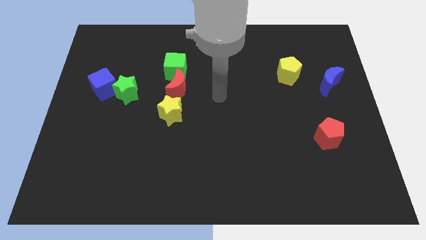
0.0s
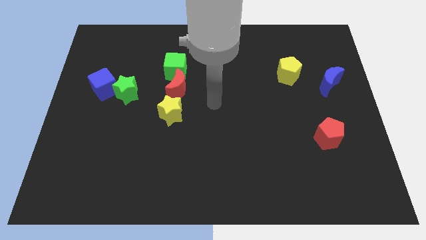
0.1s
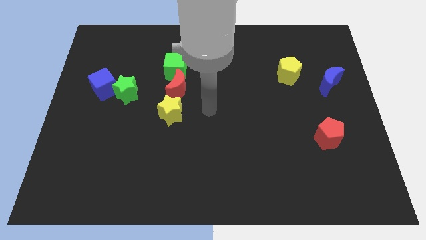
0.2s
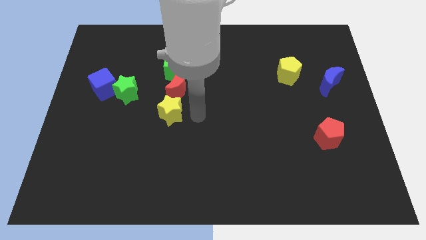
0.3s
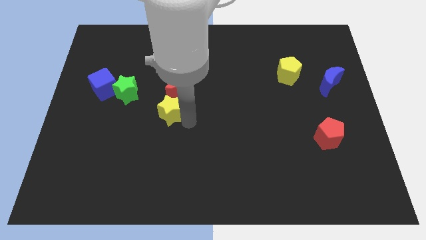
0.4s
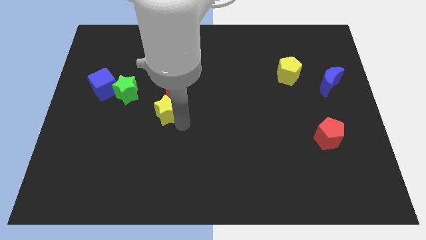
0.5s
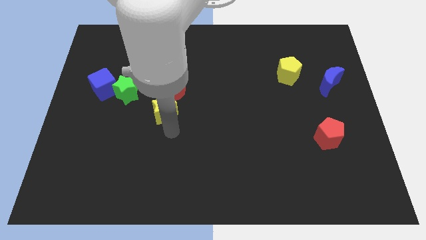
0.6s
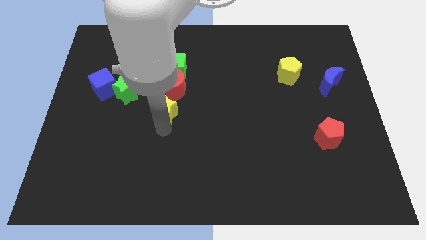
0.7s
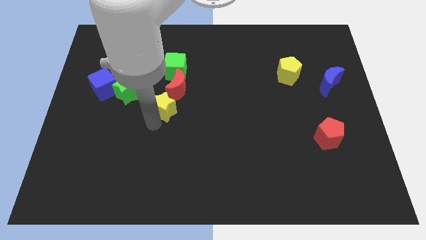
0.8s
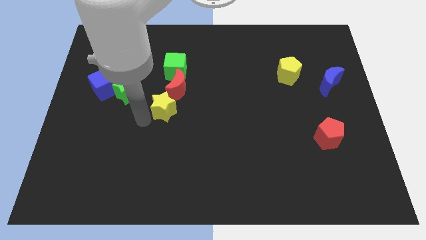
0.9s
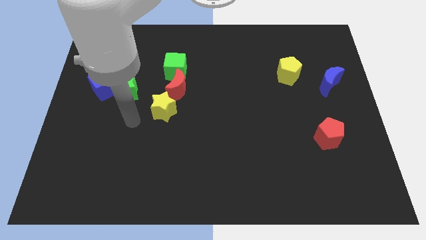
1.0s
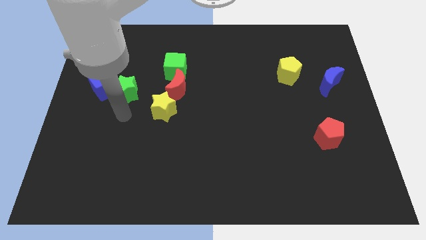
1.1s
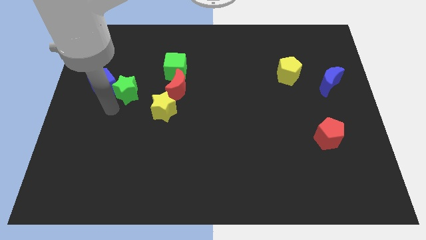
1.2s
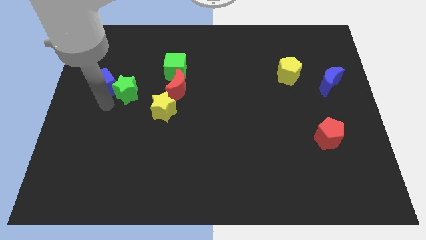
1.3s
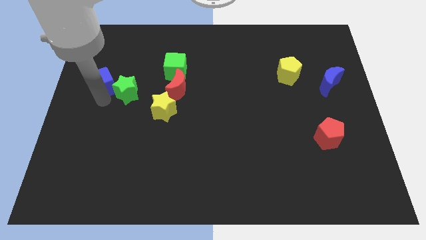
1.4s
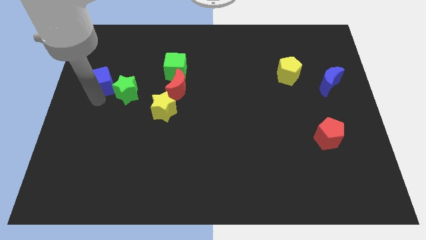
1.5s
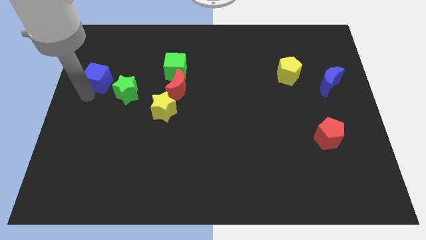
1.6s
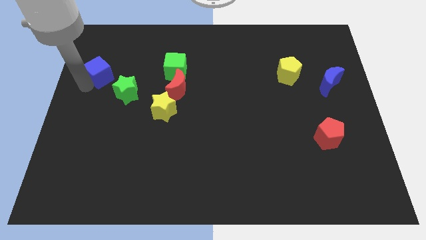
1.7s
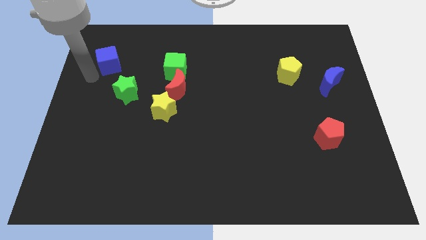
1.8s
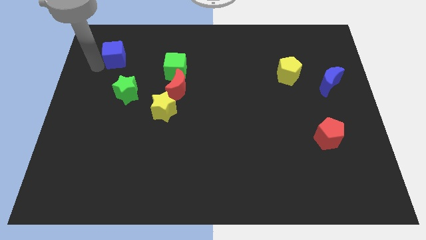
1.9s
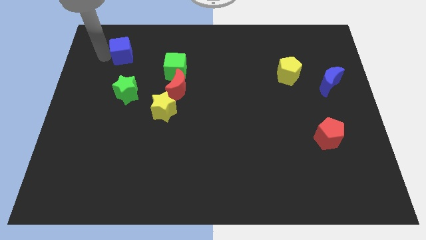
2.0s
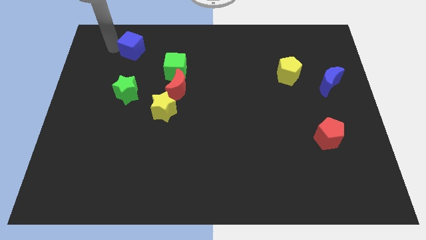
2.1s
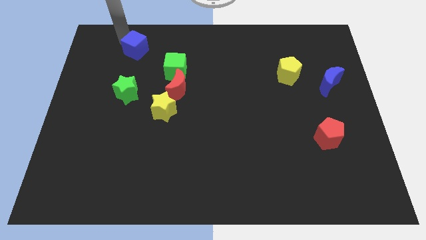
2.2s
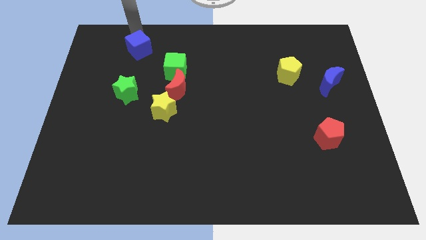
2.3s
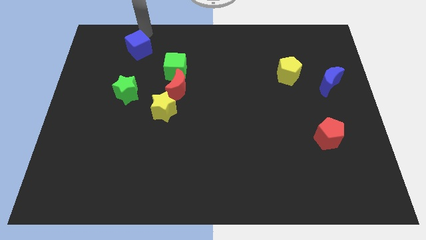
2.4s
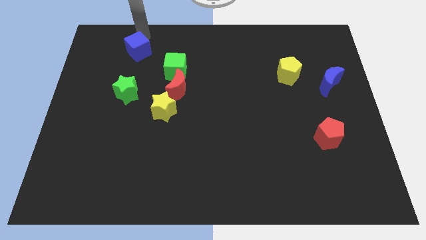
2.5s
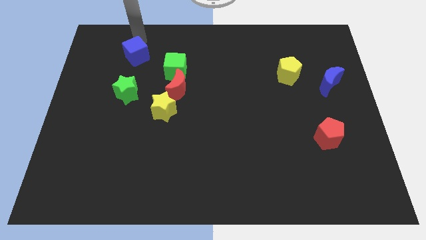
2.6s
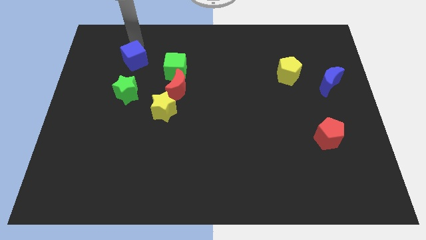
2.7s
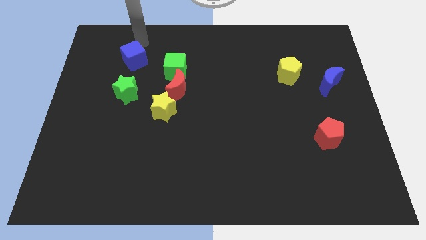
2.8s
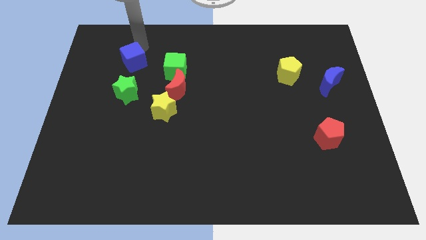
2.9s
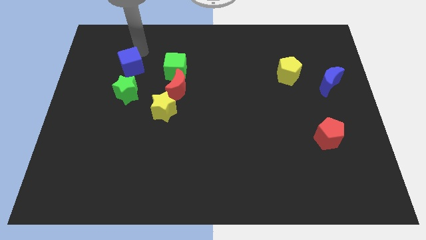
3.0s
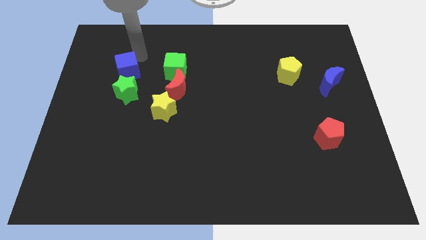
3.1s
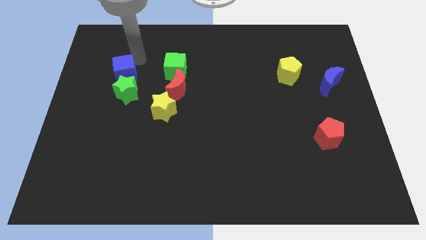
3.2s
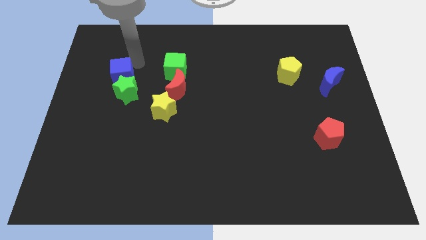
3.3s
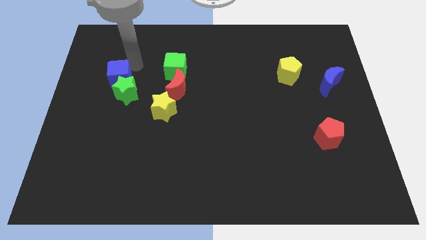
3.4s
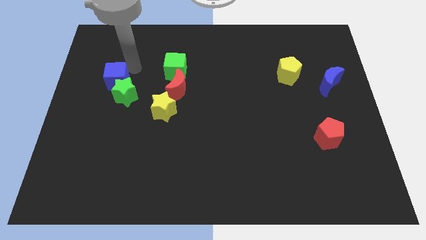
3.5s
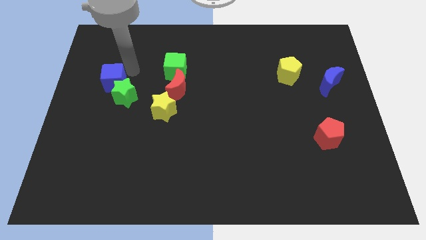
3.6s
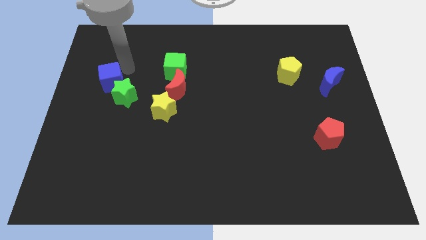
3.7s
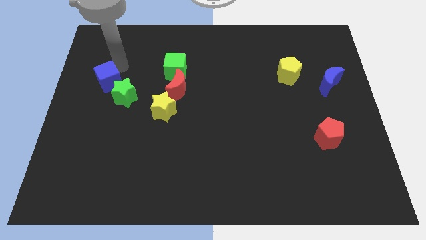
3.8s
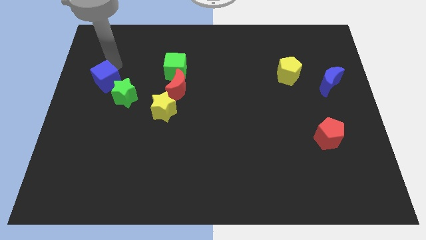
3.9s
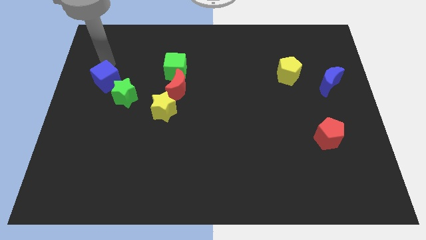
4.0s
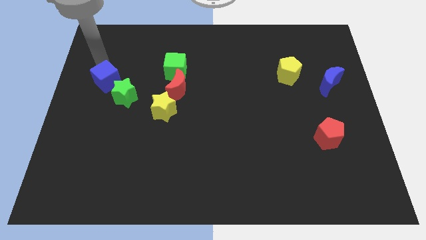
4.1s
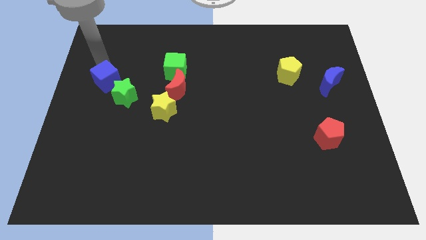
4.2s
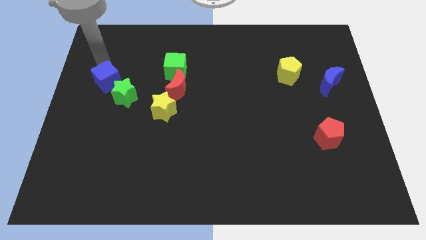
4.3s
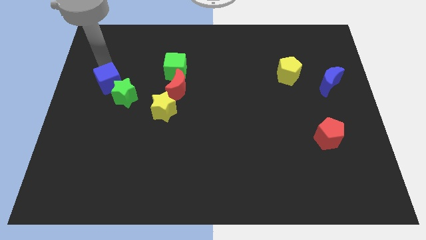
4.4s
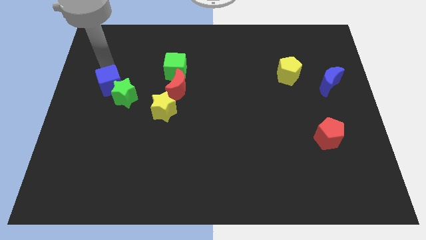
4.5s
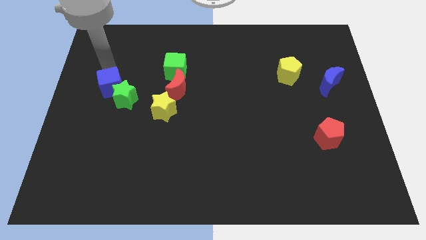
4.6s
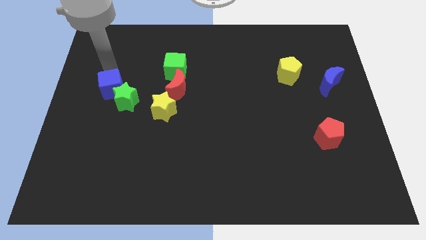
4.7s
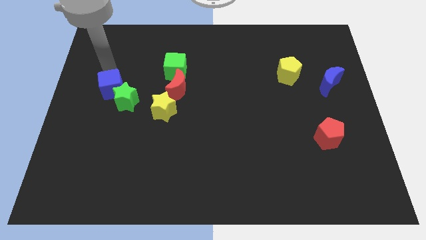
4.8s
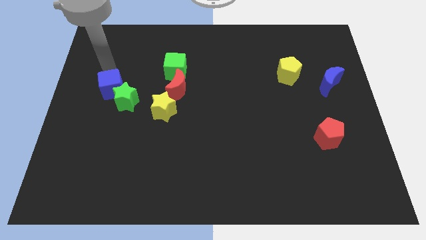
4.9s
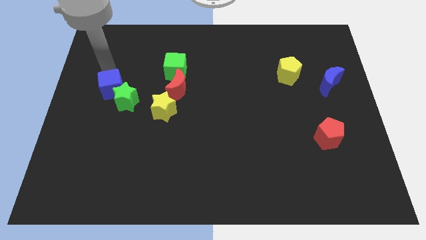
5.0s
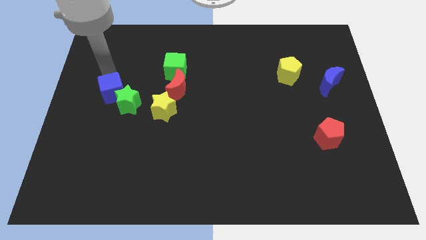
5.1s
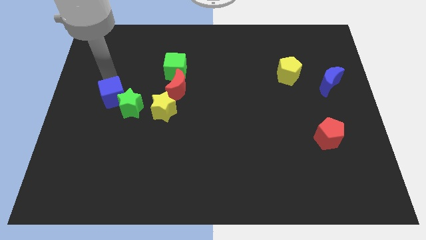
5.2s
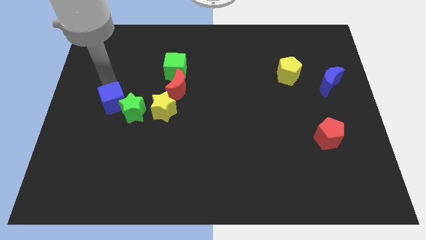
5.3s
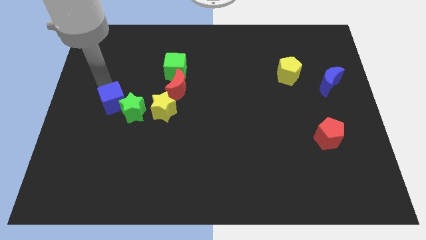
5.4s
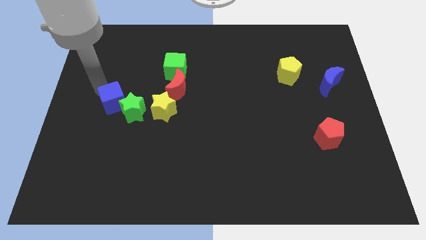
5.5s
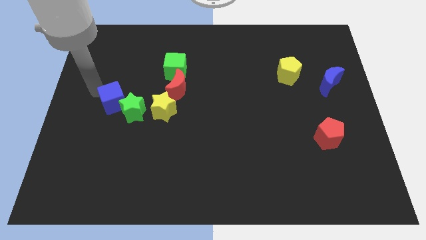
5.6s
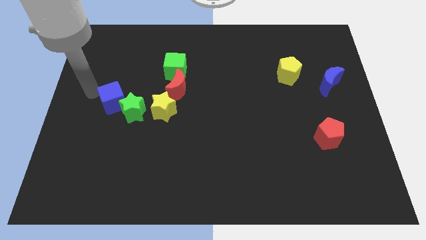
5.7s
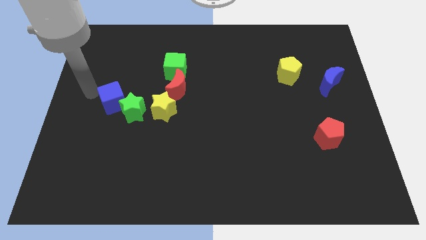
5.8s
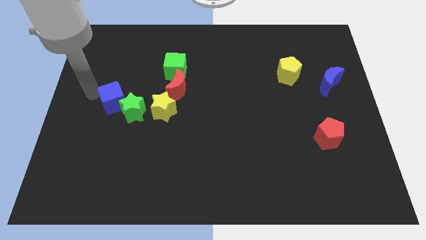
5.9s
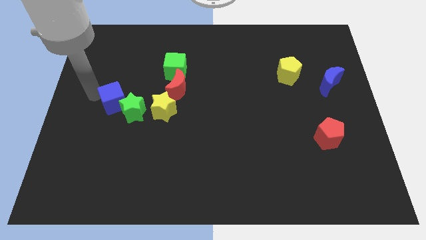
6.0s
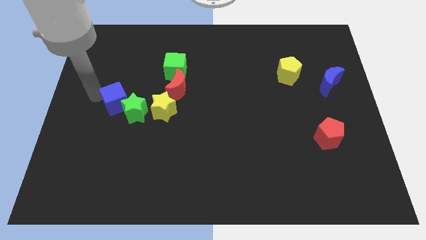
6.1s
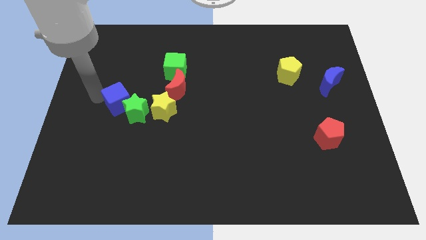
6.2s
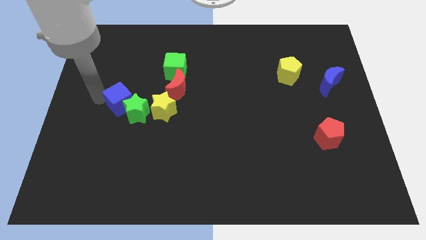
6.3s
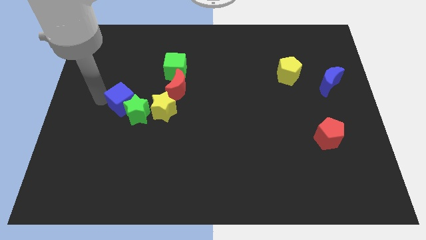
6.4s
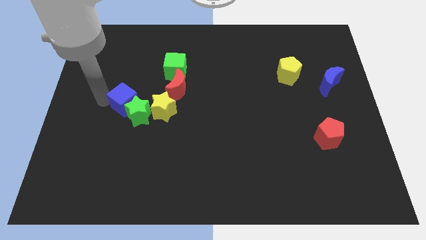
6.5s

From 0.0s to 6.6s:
move the blue cube to the top left of the yellow star
